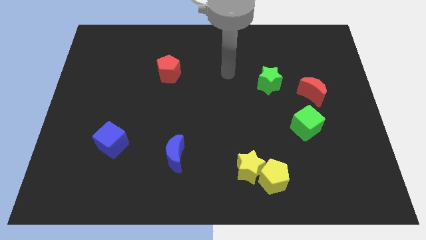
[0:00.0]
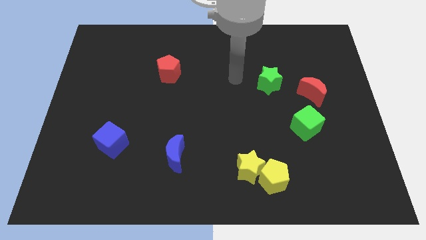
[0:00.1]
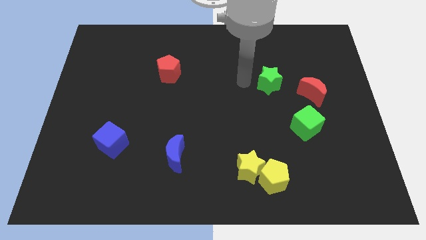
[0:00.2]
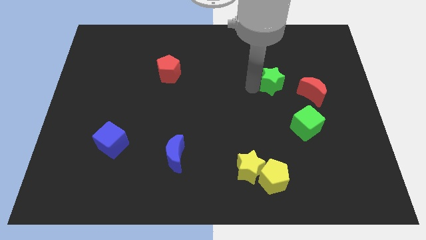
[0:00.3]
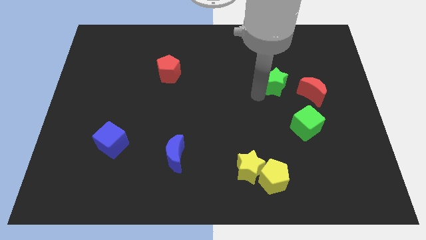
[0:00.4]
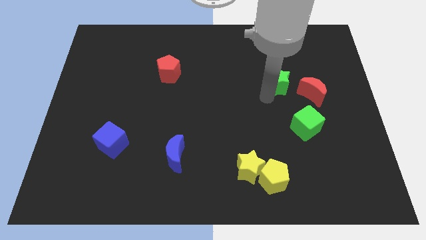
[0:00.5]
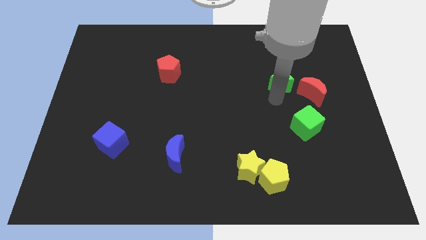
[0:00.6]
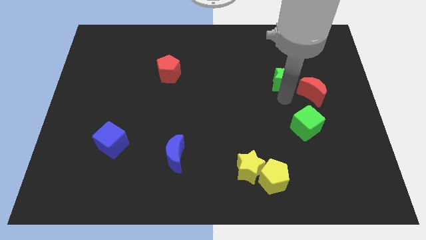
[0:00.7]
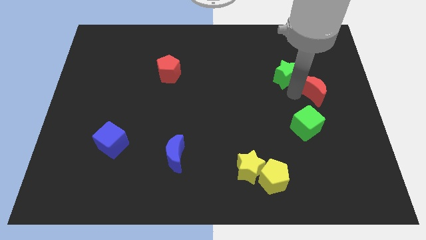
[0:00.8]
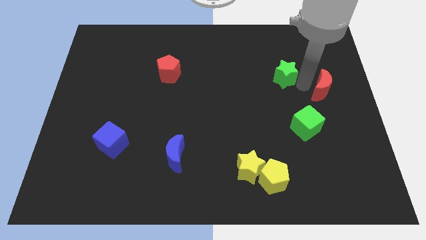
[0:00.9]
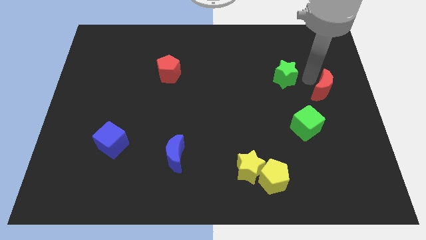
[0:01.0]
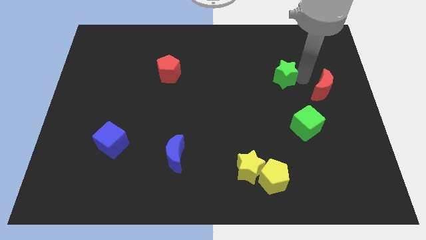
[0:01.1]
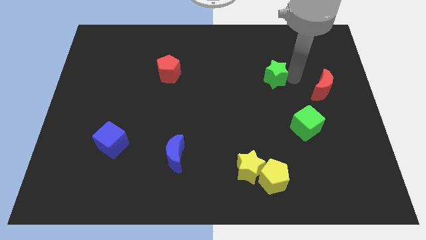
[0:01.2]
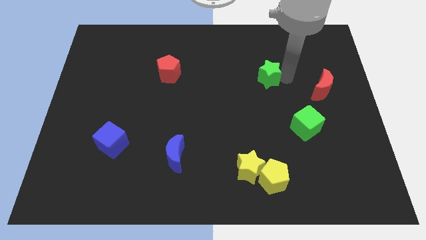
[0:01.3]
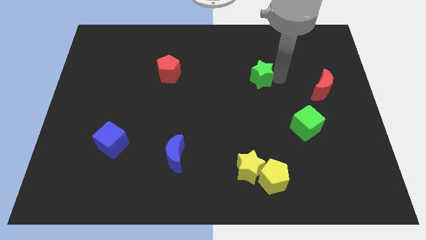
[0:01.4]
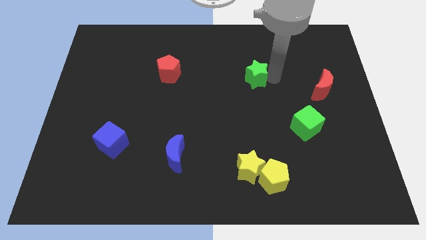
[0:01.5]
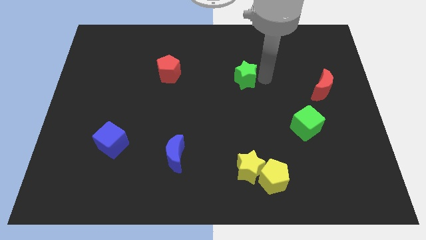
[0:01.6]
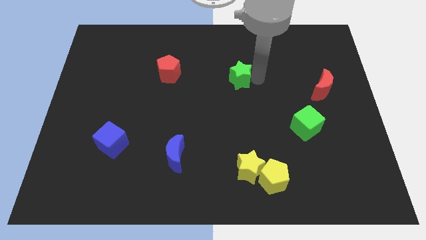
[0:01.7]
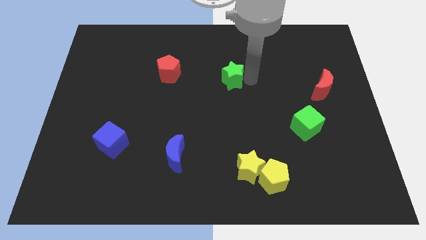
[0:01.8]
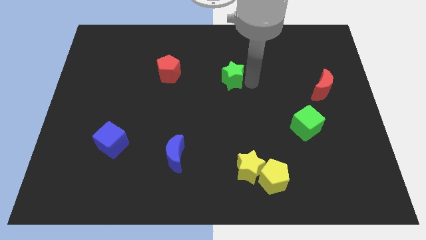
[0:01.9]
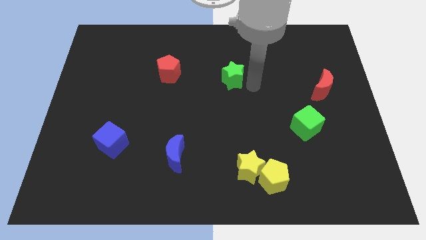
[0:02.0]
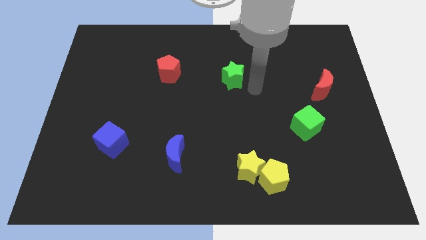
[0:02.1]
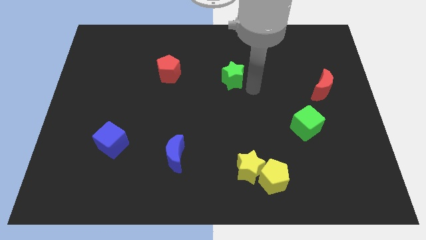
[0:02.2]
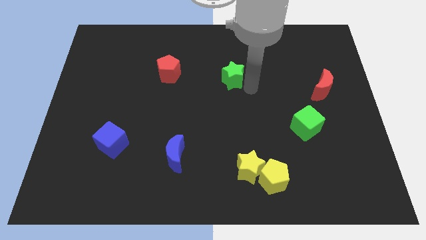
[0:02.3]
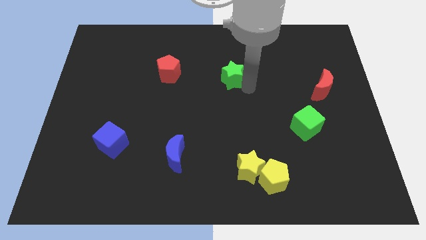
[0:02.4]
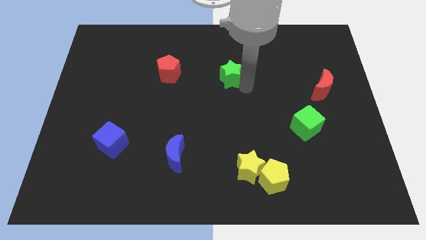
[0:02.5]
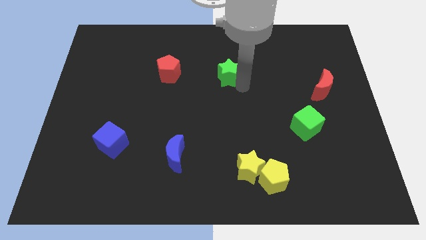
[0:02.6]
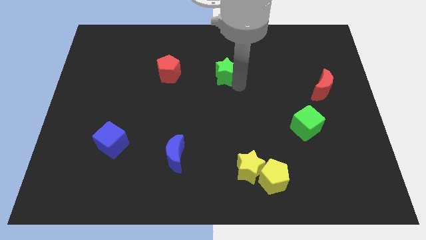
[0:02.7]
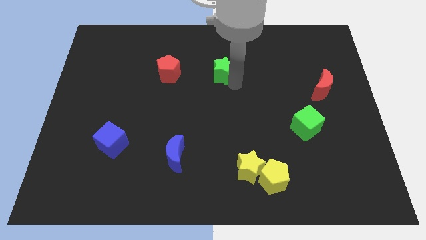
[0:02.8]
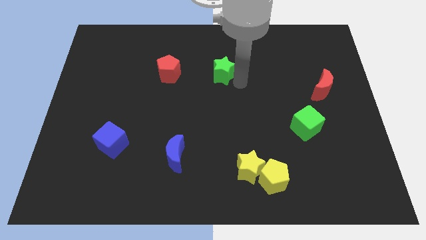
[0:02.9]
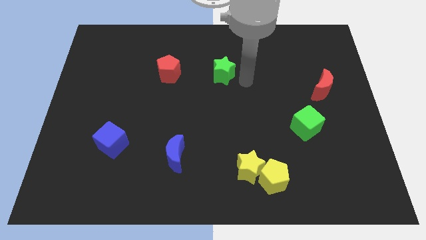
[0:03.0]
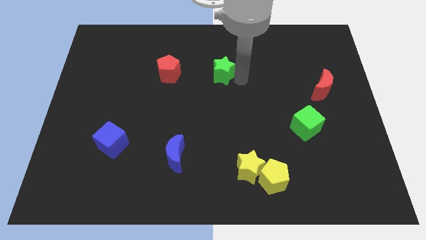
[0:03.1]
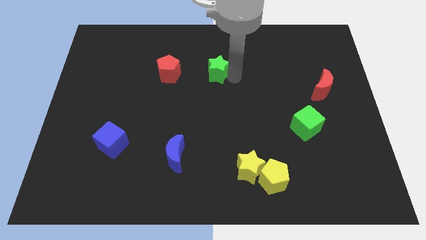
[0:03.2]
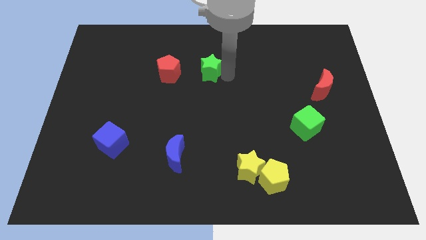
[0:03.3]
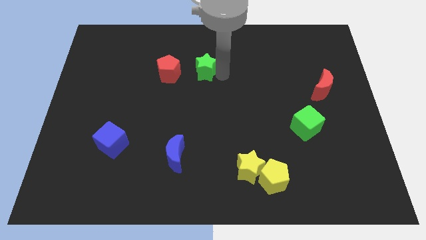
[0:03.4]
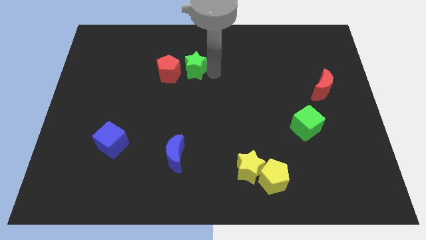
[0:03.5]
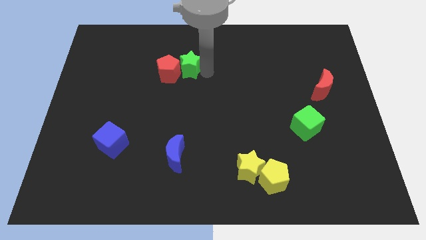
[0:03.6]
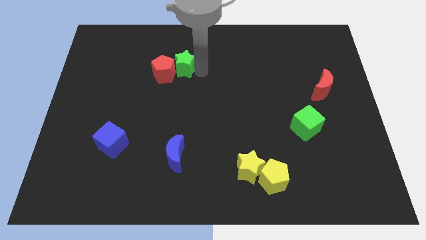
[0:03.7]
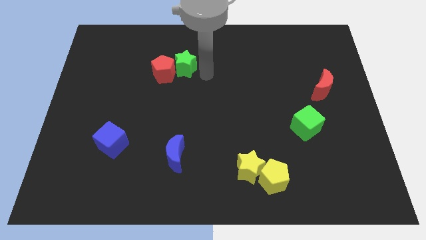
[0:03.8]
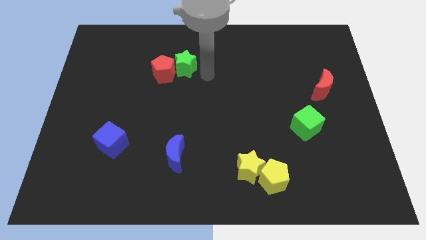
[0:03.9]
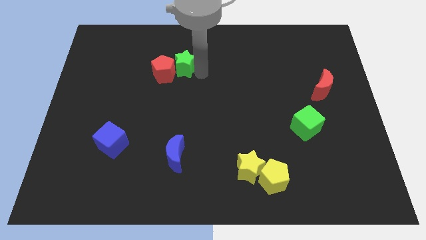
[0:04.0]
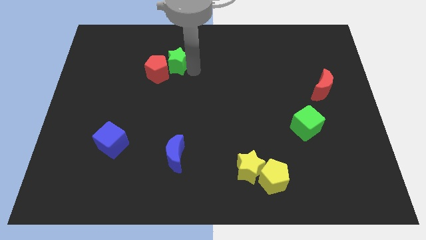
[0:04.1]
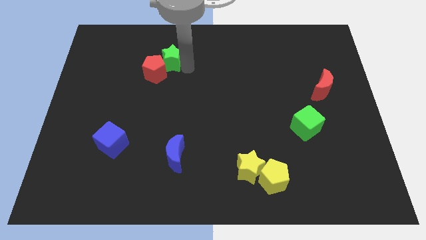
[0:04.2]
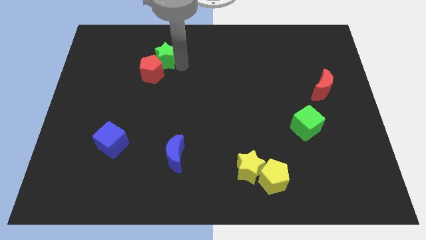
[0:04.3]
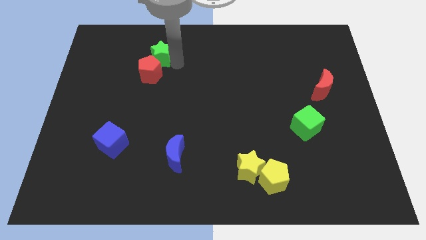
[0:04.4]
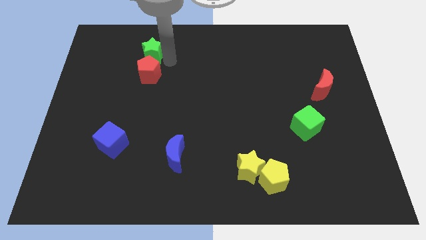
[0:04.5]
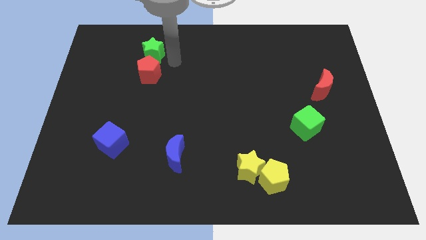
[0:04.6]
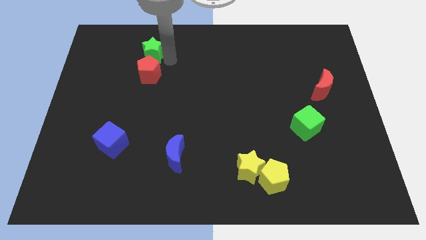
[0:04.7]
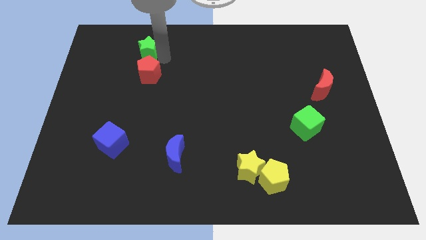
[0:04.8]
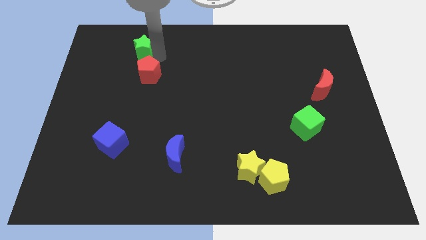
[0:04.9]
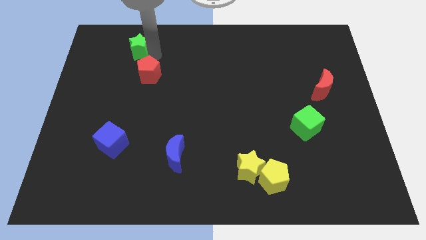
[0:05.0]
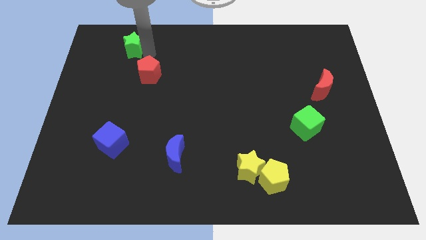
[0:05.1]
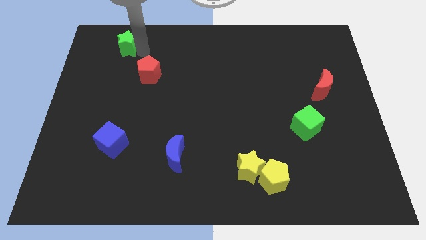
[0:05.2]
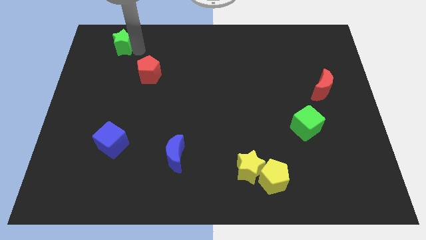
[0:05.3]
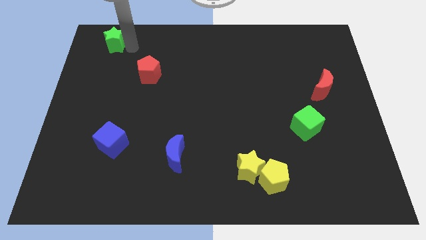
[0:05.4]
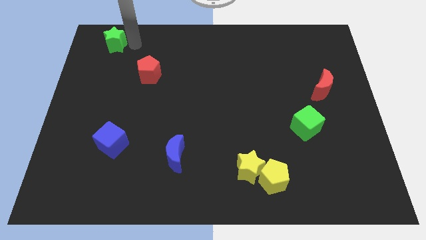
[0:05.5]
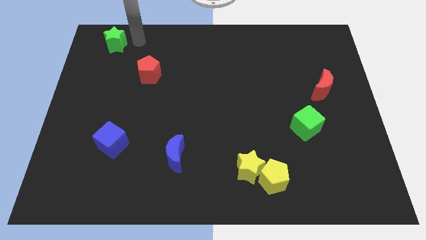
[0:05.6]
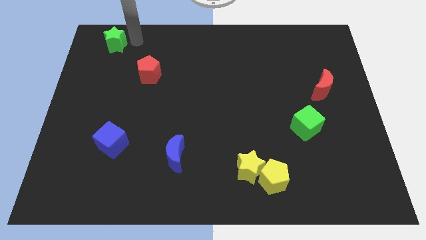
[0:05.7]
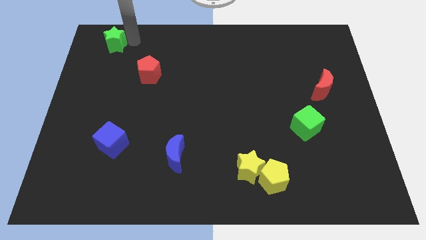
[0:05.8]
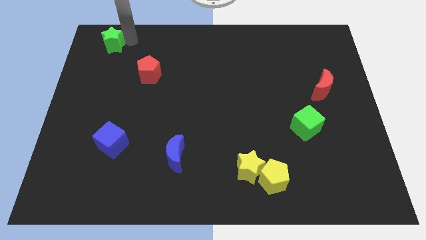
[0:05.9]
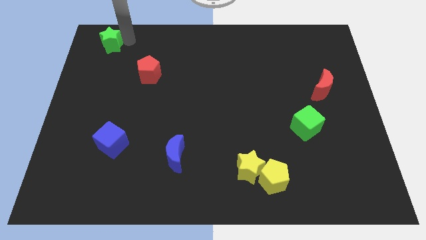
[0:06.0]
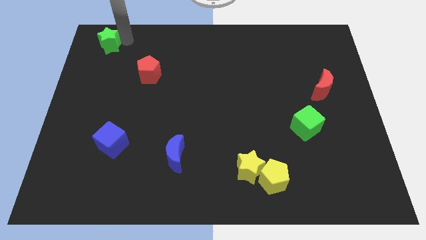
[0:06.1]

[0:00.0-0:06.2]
push the green star to the upper left corner

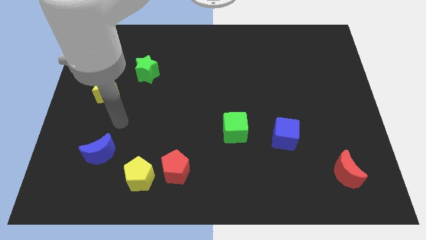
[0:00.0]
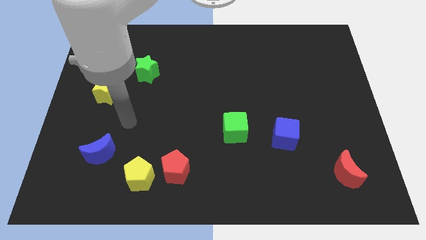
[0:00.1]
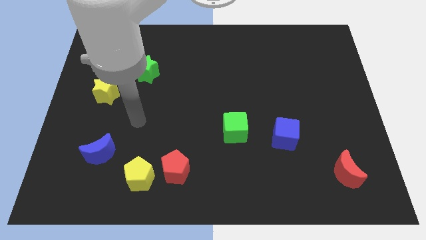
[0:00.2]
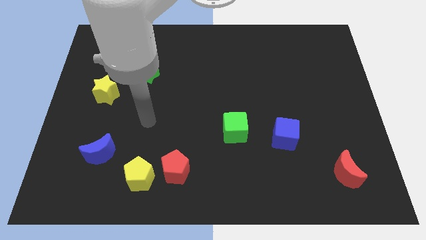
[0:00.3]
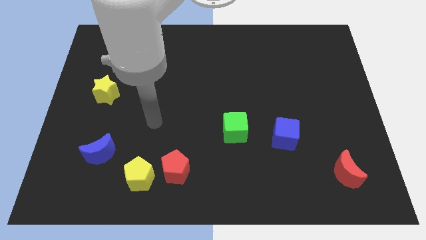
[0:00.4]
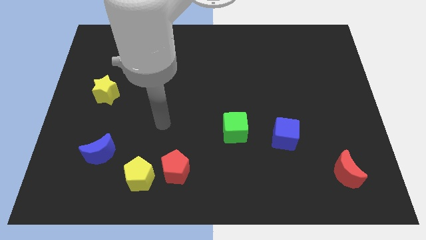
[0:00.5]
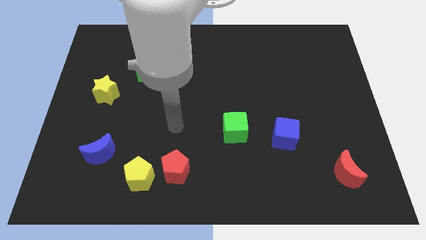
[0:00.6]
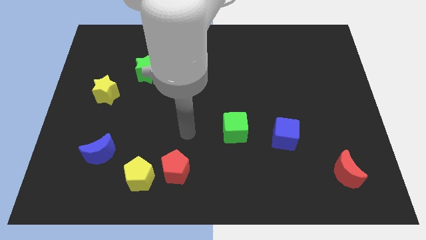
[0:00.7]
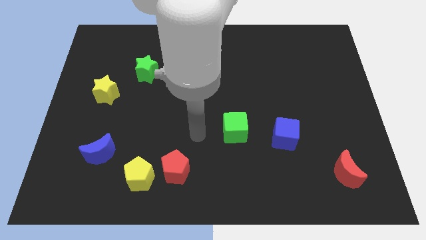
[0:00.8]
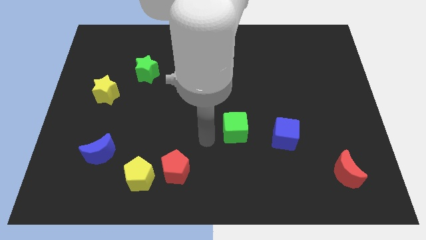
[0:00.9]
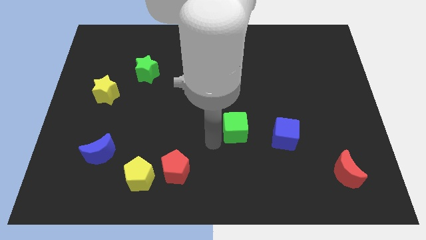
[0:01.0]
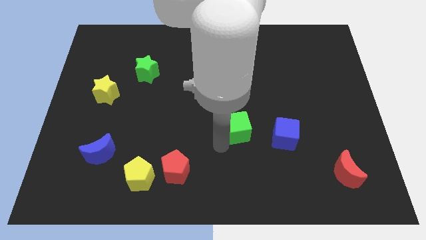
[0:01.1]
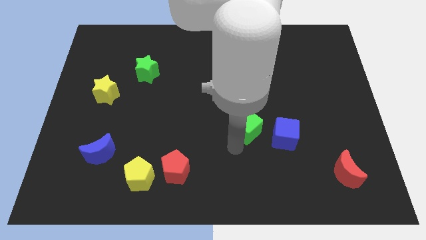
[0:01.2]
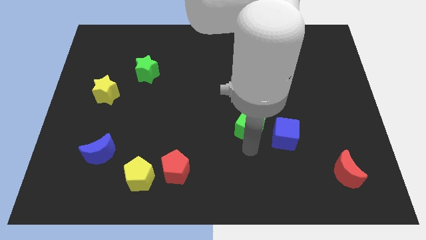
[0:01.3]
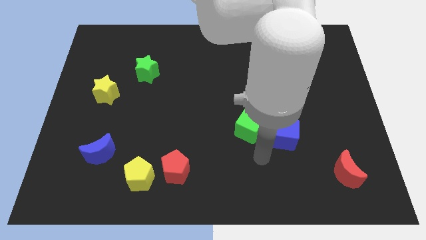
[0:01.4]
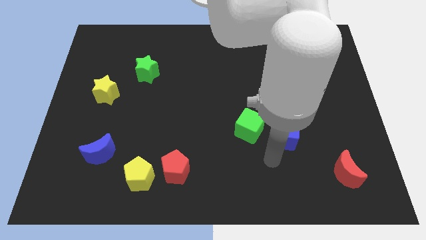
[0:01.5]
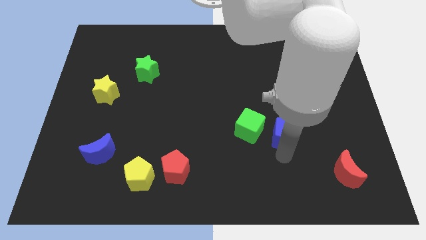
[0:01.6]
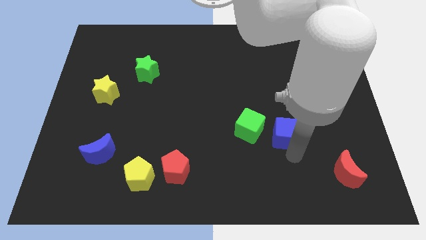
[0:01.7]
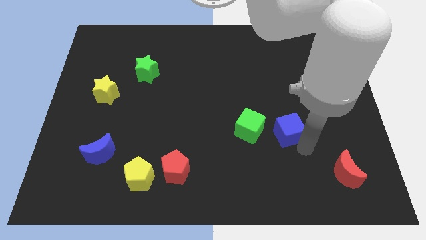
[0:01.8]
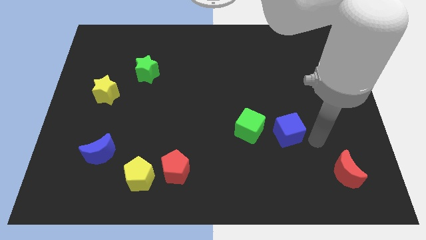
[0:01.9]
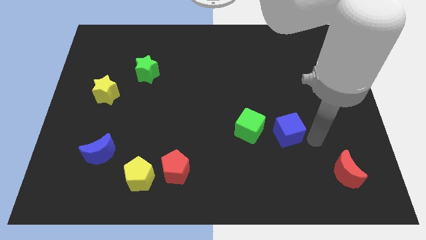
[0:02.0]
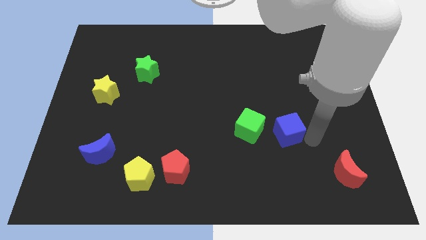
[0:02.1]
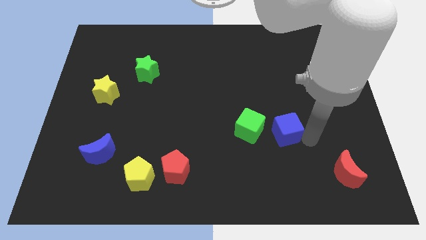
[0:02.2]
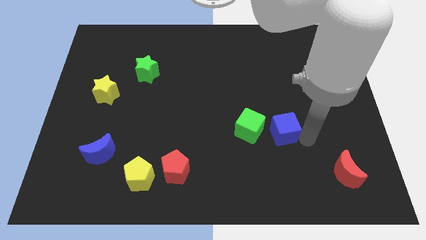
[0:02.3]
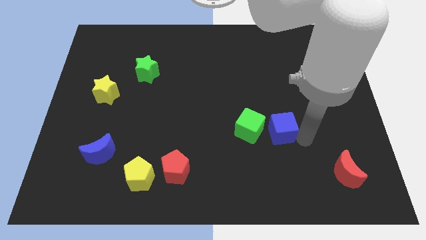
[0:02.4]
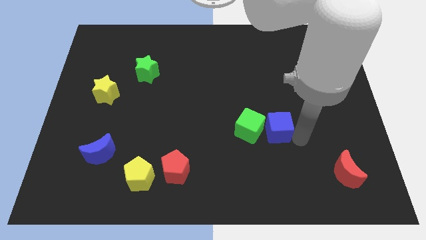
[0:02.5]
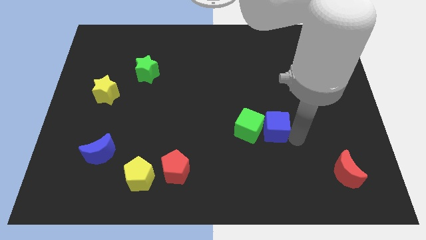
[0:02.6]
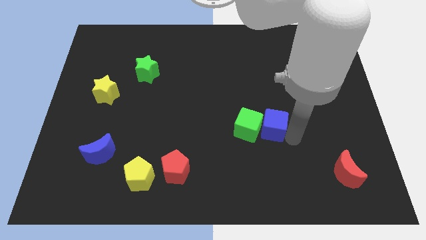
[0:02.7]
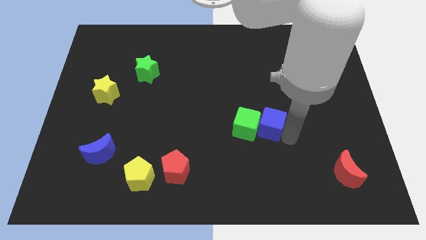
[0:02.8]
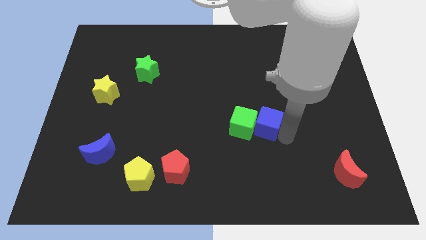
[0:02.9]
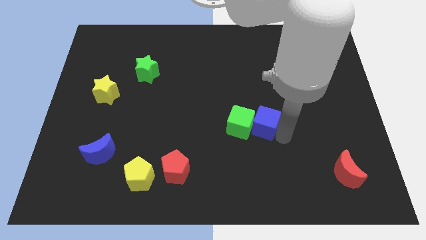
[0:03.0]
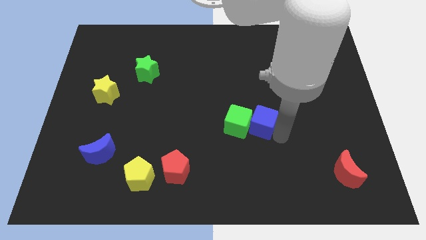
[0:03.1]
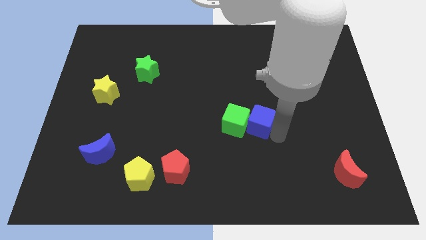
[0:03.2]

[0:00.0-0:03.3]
push the blue cube to the center of the board
